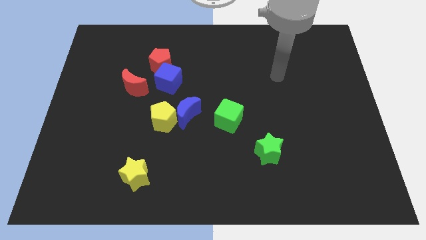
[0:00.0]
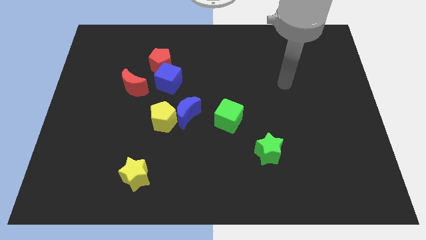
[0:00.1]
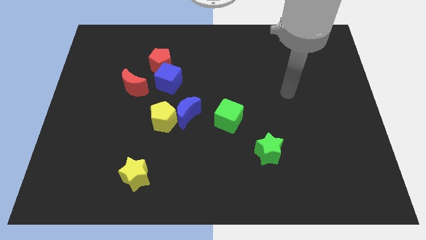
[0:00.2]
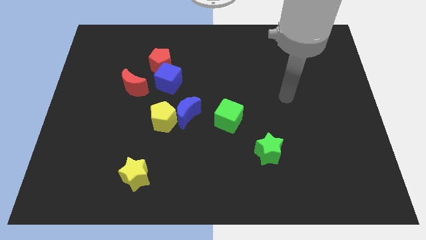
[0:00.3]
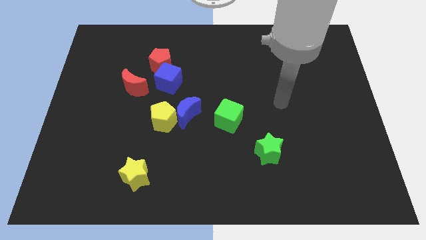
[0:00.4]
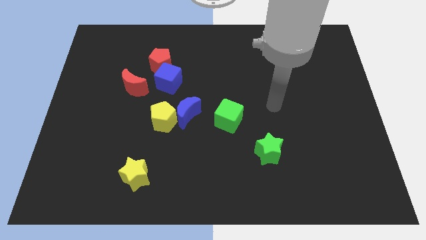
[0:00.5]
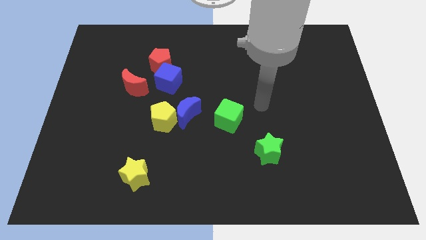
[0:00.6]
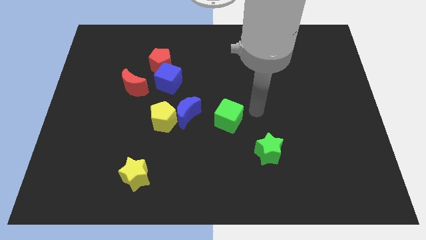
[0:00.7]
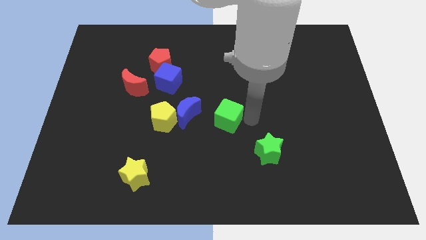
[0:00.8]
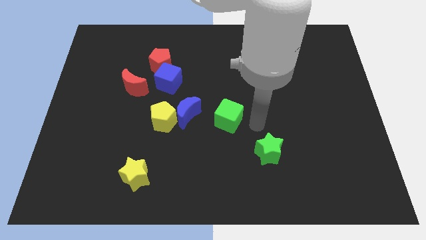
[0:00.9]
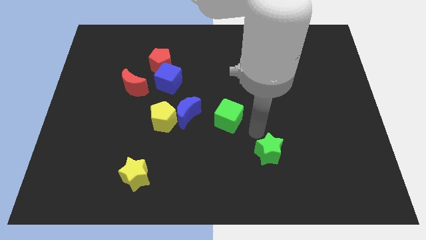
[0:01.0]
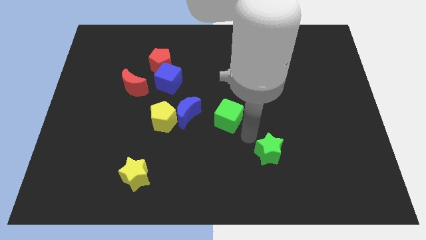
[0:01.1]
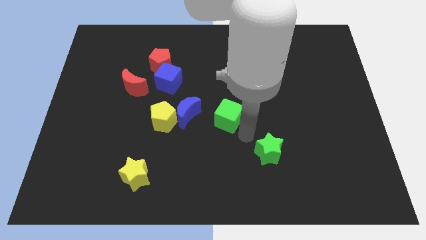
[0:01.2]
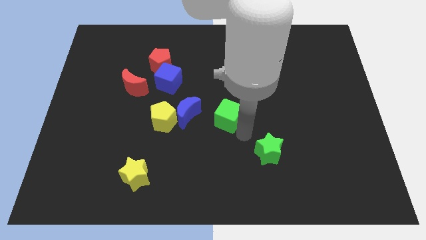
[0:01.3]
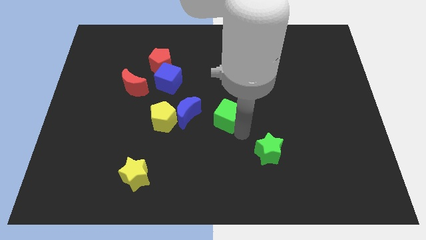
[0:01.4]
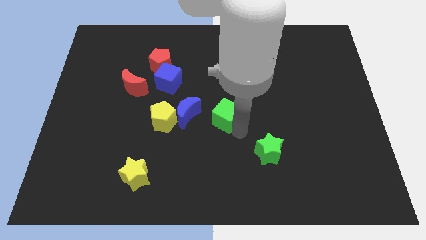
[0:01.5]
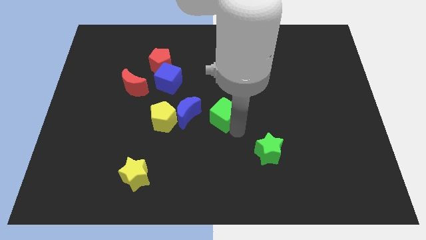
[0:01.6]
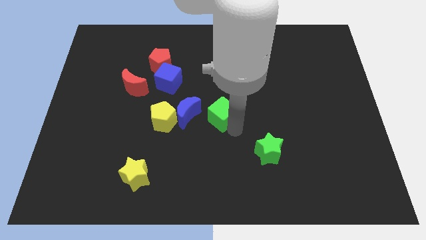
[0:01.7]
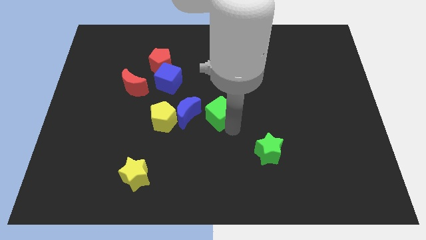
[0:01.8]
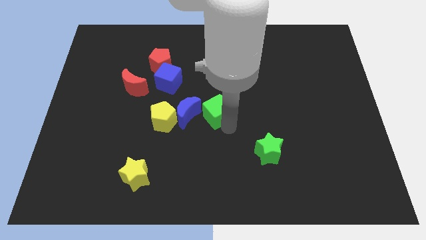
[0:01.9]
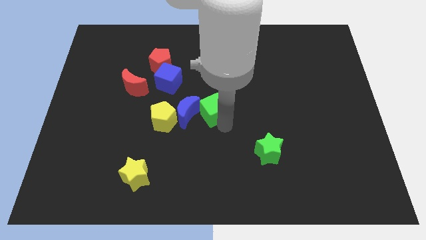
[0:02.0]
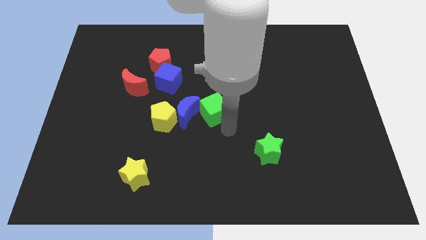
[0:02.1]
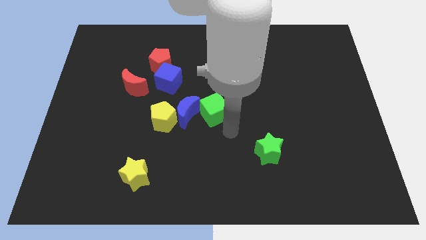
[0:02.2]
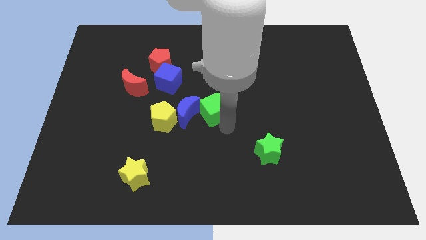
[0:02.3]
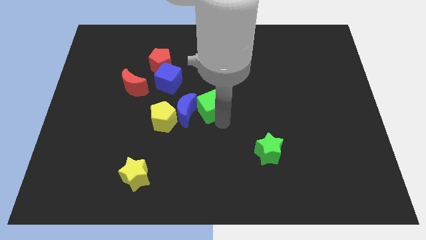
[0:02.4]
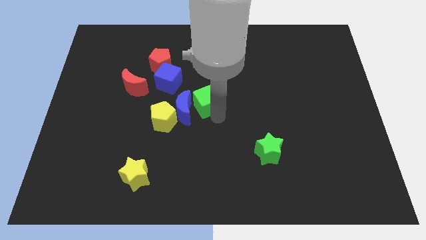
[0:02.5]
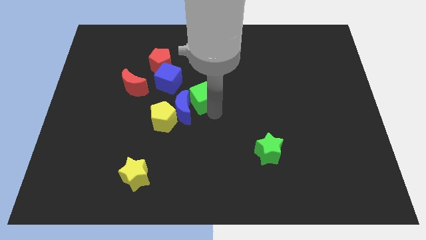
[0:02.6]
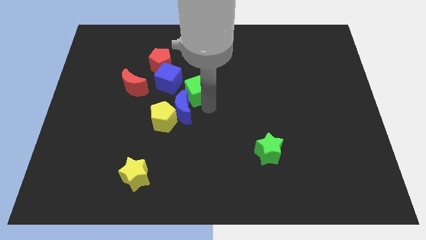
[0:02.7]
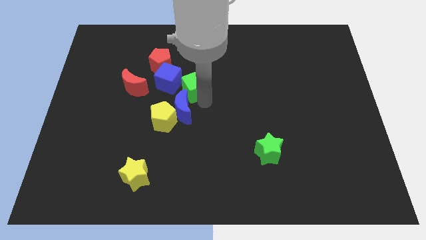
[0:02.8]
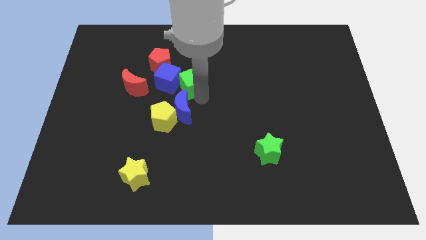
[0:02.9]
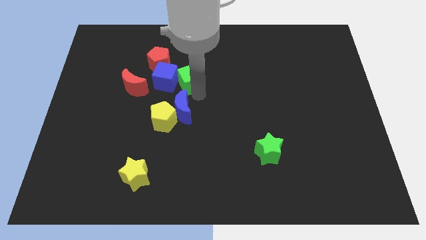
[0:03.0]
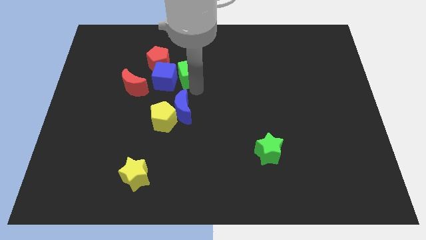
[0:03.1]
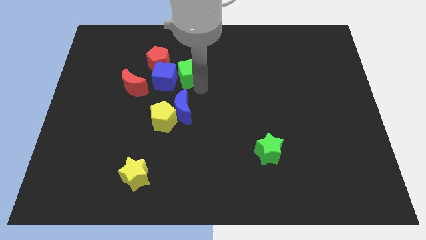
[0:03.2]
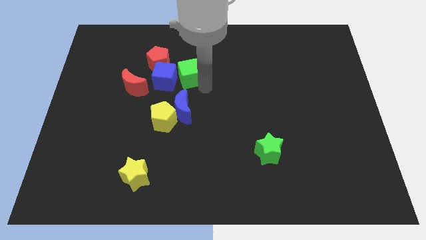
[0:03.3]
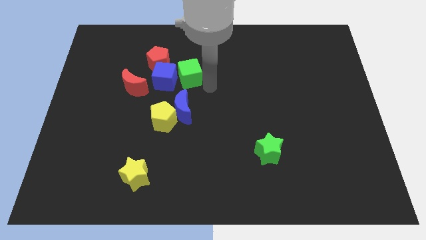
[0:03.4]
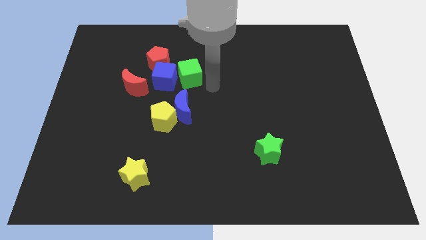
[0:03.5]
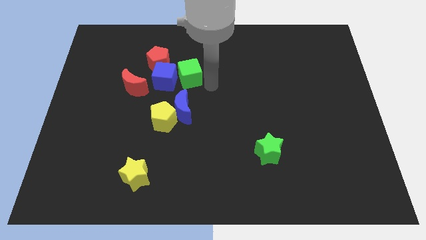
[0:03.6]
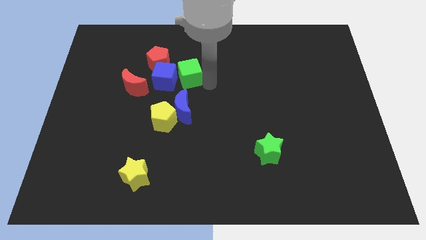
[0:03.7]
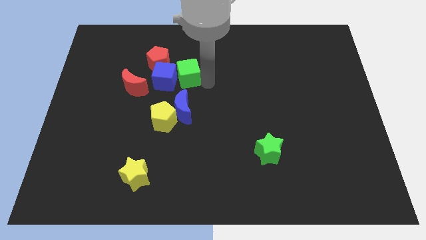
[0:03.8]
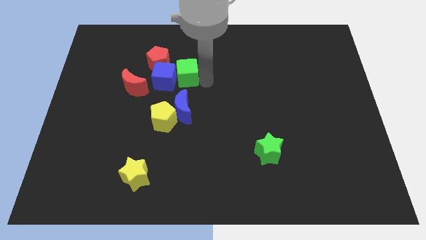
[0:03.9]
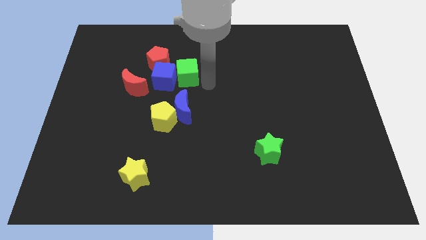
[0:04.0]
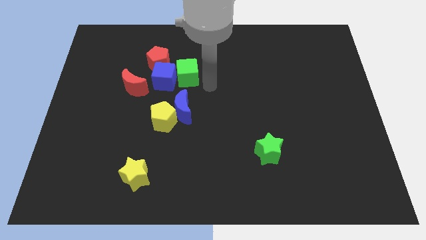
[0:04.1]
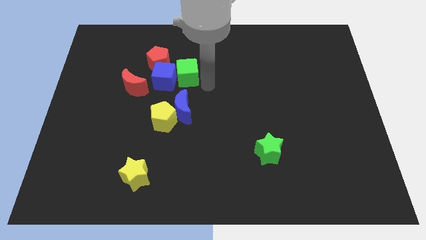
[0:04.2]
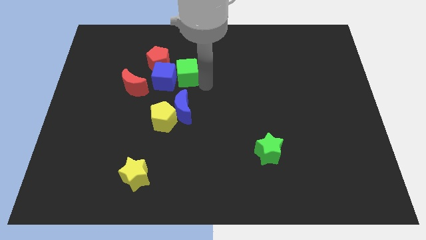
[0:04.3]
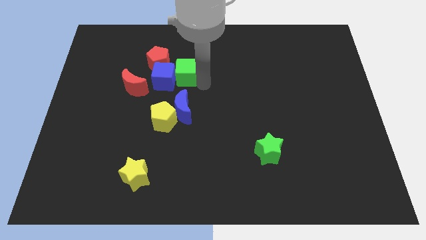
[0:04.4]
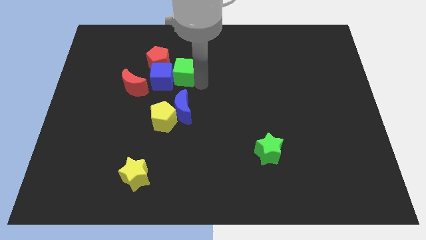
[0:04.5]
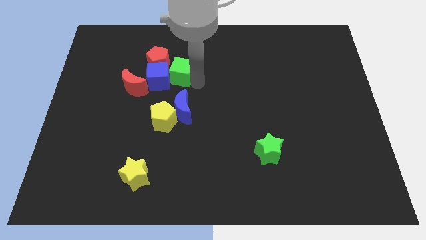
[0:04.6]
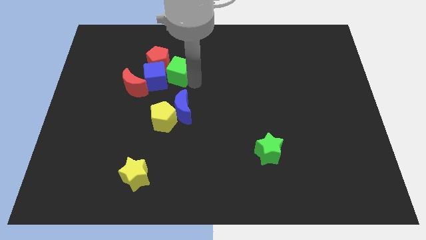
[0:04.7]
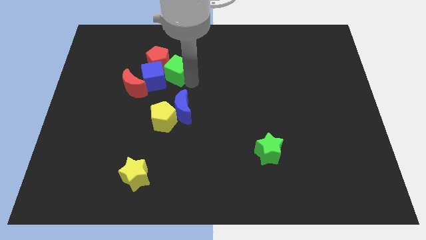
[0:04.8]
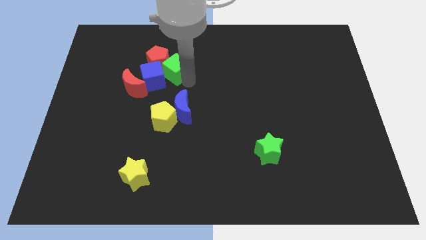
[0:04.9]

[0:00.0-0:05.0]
push the green cube next to the red pentagon

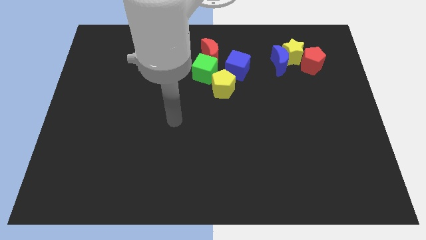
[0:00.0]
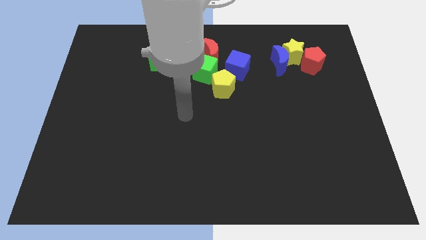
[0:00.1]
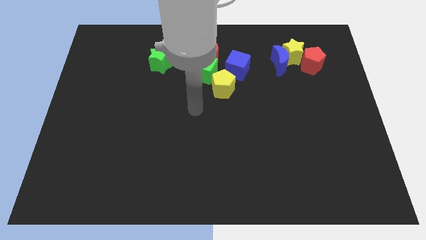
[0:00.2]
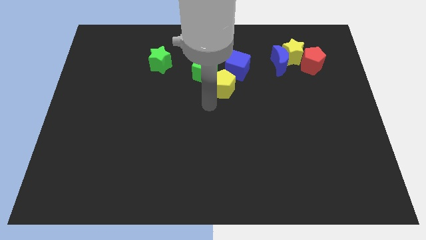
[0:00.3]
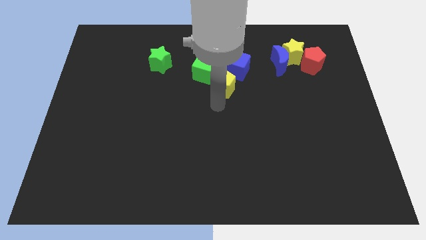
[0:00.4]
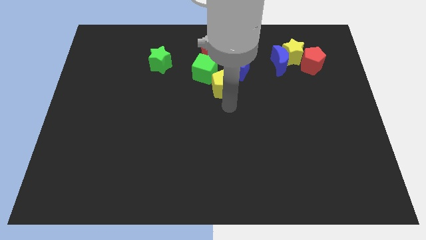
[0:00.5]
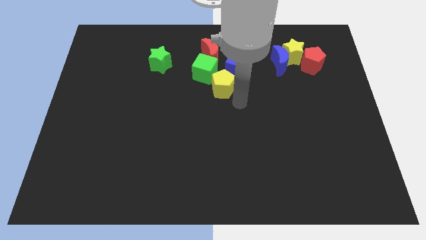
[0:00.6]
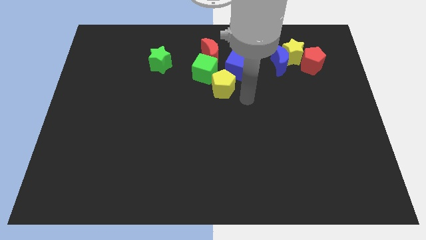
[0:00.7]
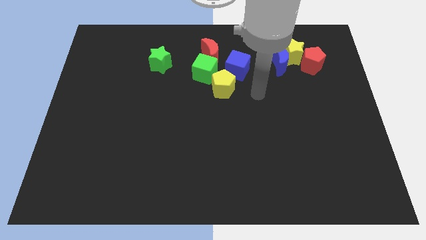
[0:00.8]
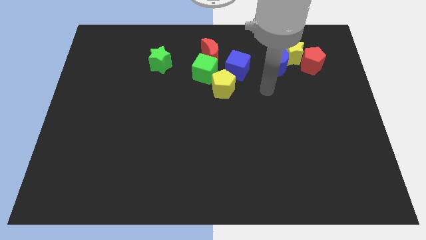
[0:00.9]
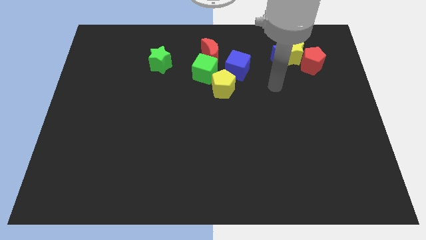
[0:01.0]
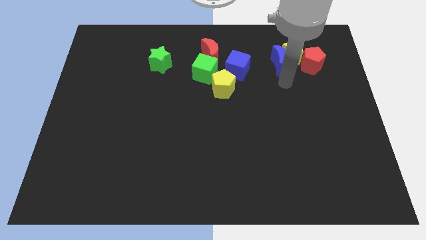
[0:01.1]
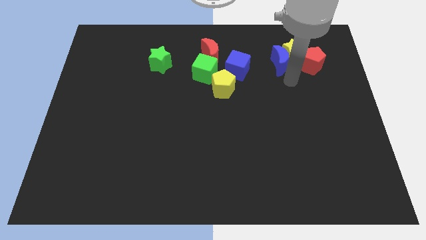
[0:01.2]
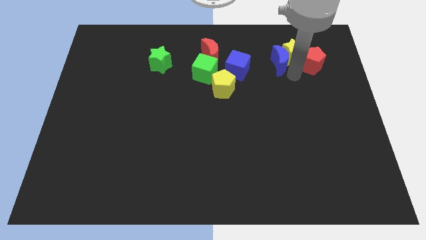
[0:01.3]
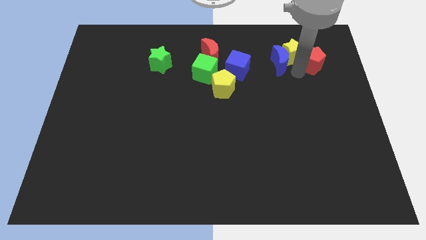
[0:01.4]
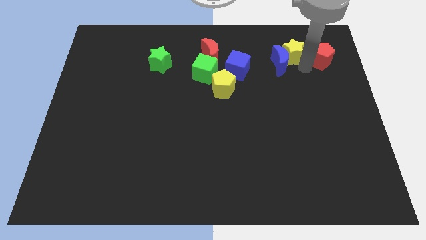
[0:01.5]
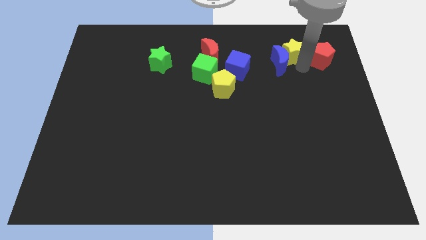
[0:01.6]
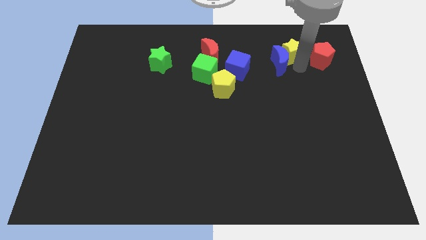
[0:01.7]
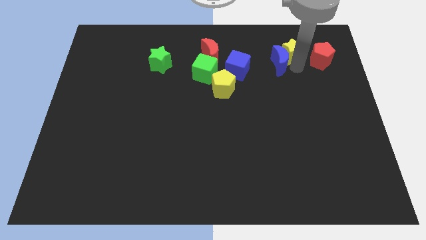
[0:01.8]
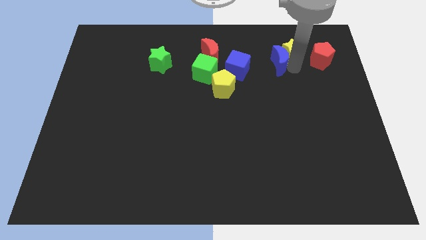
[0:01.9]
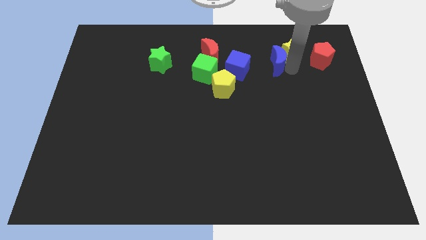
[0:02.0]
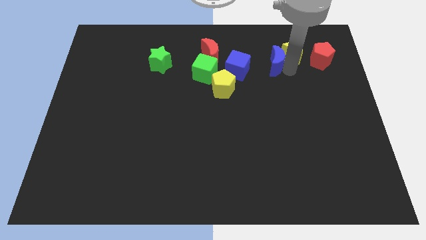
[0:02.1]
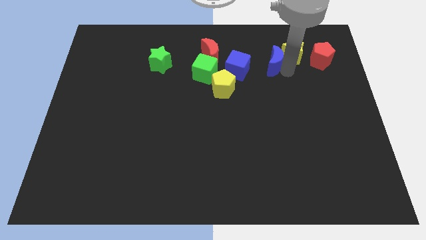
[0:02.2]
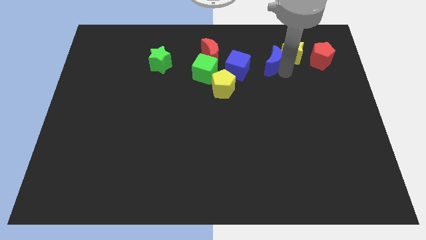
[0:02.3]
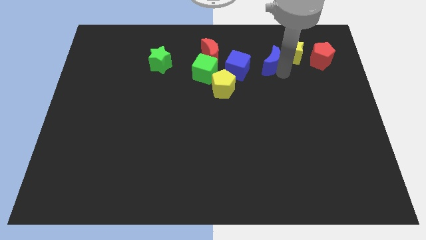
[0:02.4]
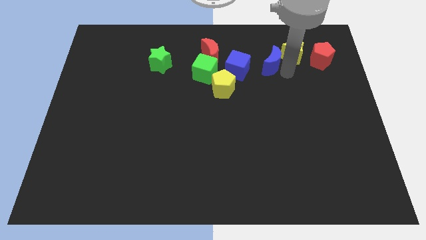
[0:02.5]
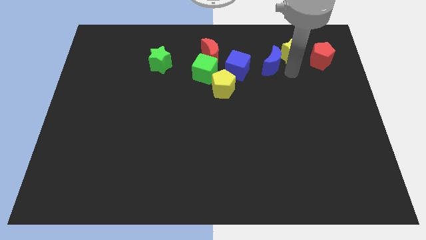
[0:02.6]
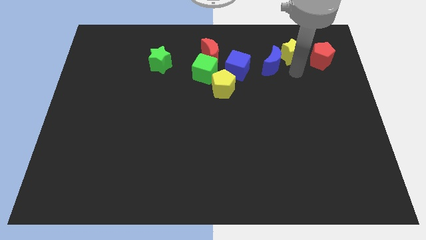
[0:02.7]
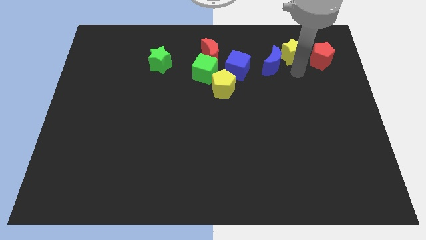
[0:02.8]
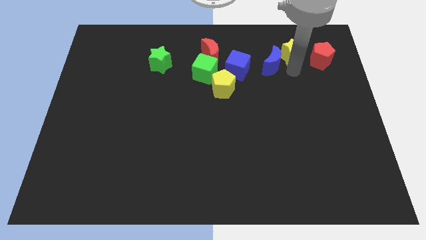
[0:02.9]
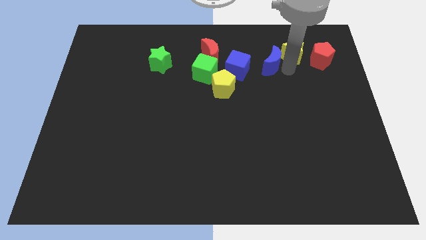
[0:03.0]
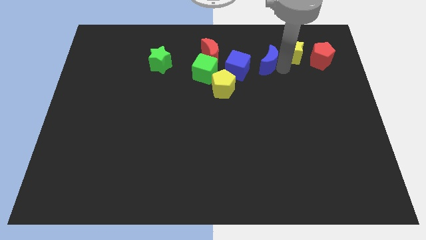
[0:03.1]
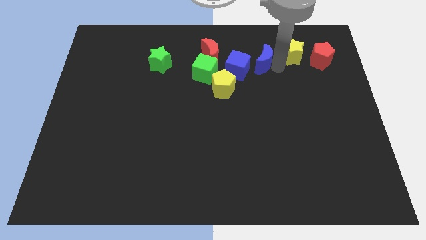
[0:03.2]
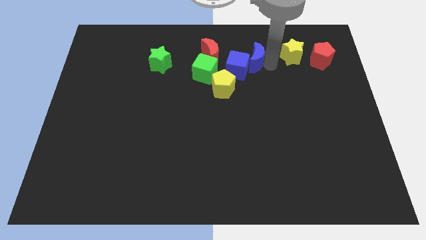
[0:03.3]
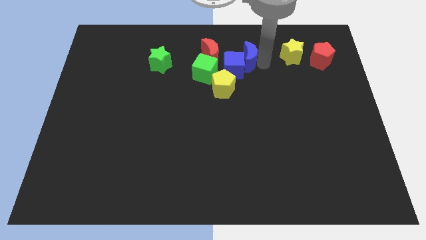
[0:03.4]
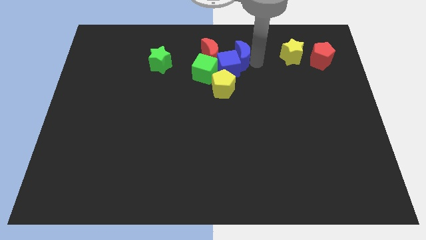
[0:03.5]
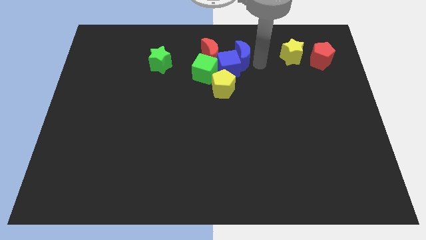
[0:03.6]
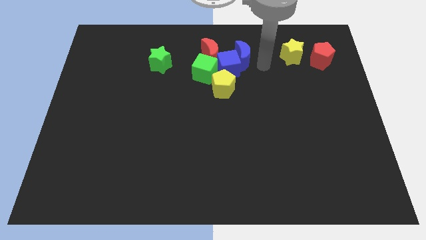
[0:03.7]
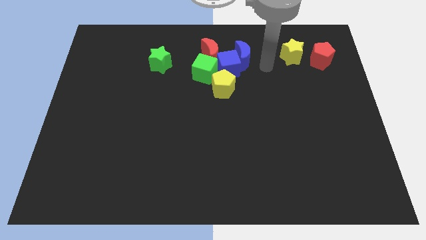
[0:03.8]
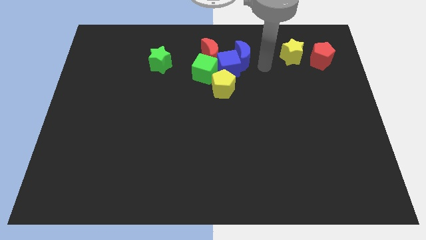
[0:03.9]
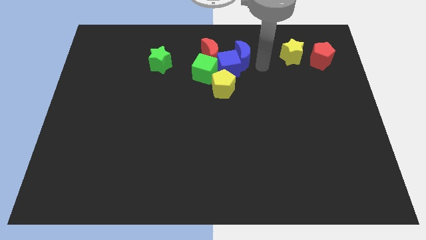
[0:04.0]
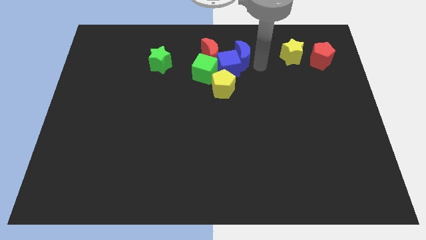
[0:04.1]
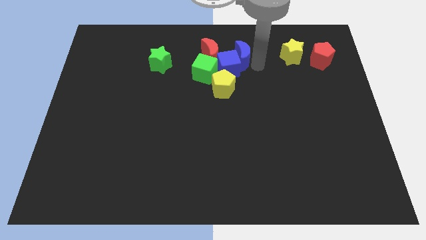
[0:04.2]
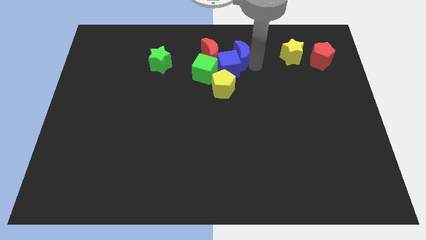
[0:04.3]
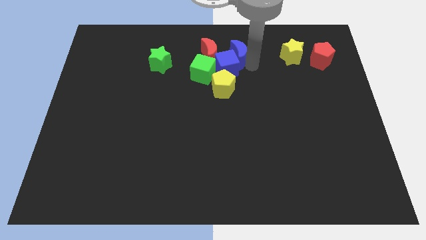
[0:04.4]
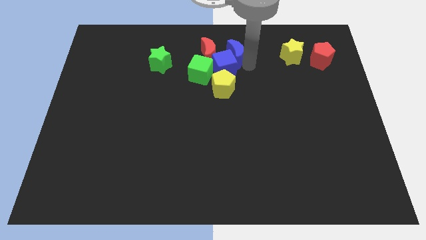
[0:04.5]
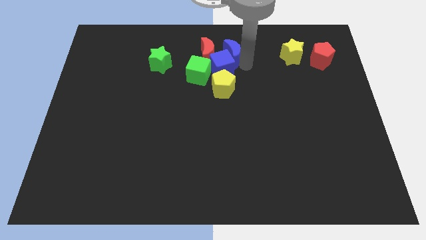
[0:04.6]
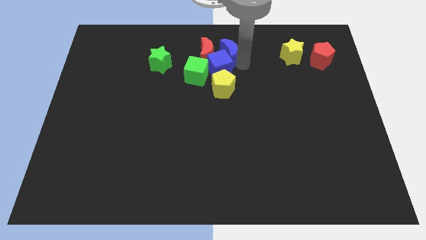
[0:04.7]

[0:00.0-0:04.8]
slide the blue moon to the red moon
